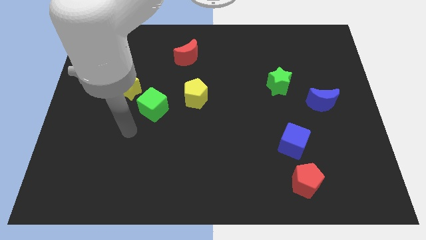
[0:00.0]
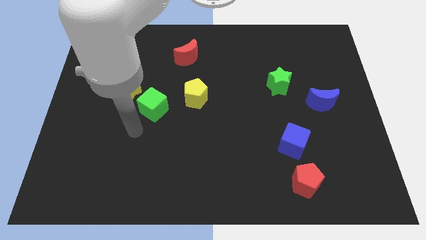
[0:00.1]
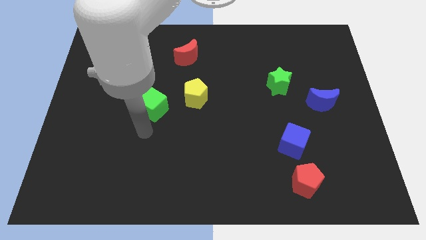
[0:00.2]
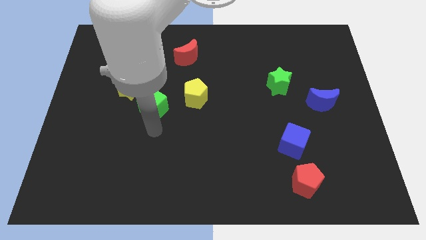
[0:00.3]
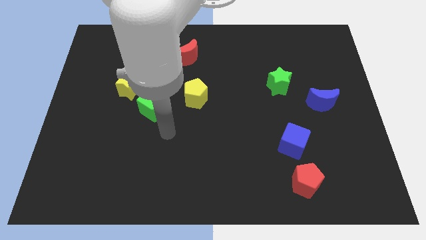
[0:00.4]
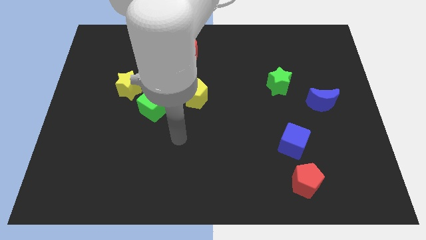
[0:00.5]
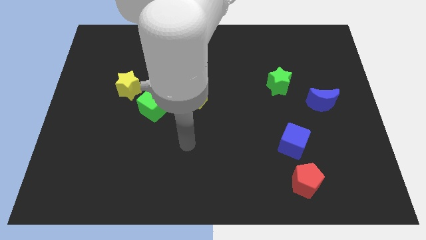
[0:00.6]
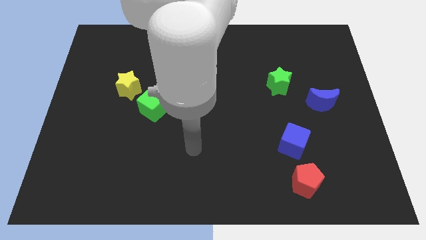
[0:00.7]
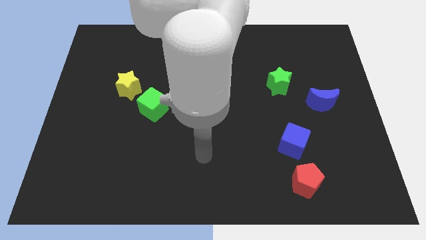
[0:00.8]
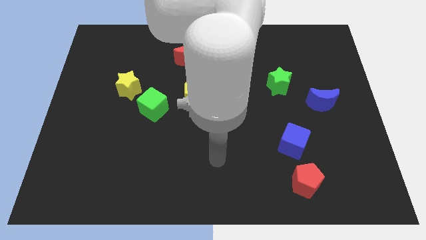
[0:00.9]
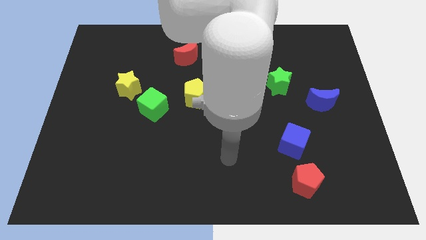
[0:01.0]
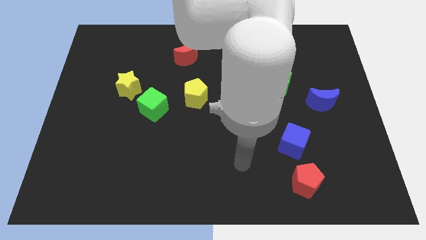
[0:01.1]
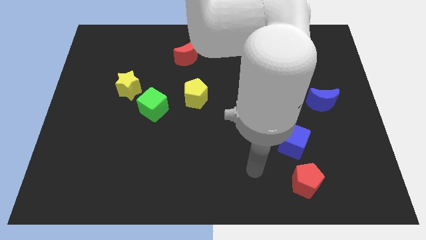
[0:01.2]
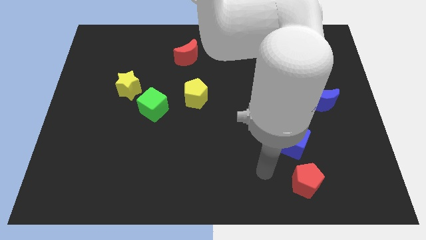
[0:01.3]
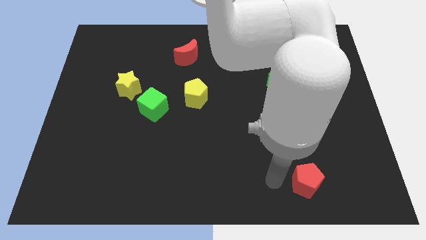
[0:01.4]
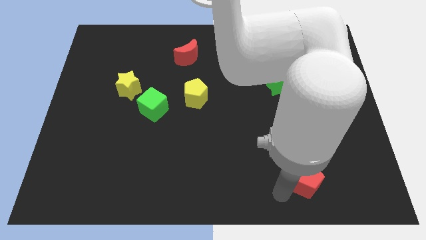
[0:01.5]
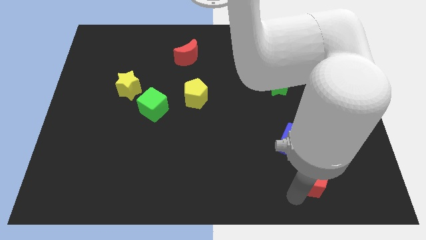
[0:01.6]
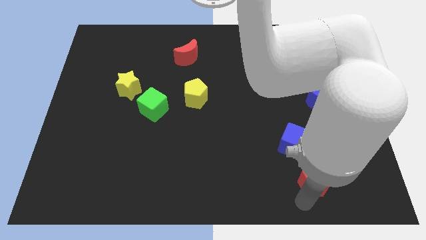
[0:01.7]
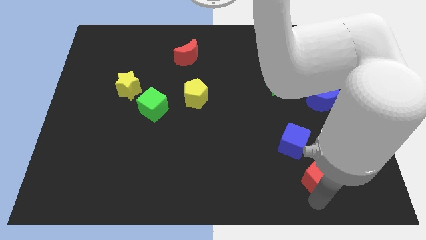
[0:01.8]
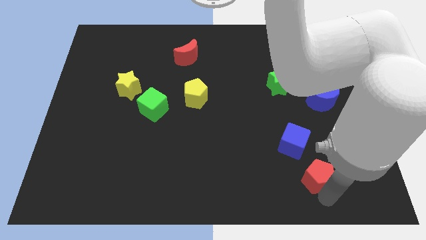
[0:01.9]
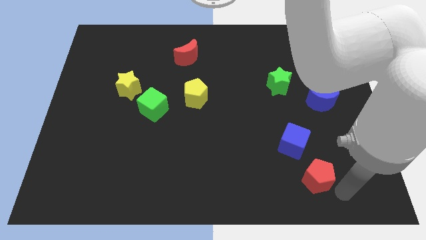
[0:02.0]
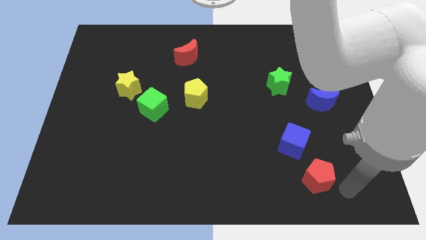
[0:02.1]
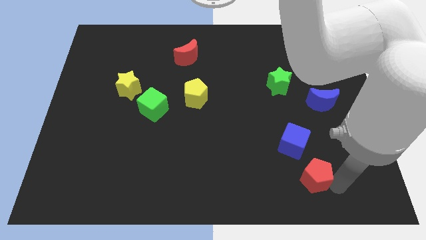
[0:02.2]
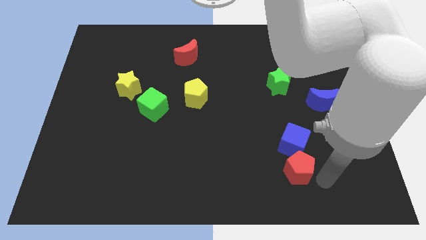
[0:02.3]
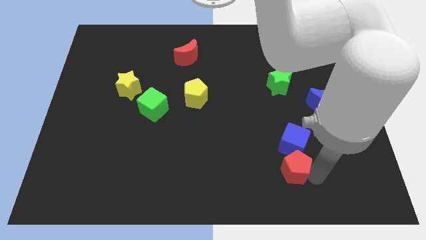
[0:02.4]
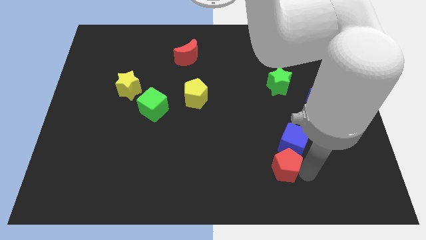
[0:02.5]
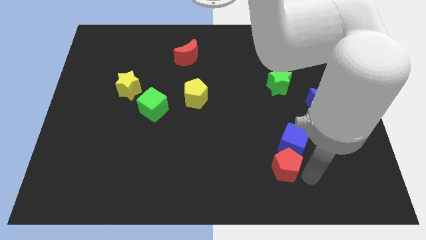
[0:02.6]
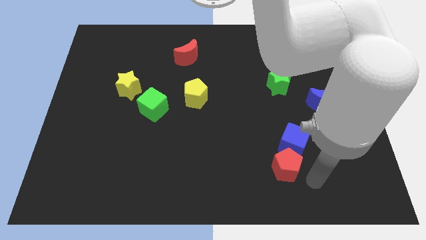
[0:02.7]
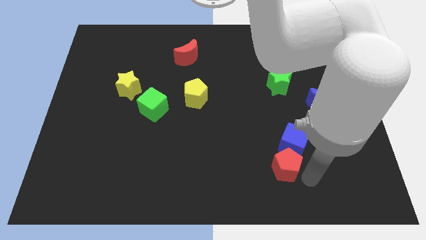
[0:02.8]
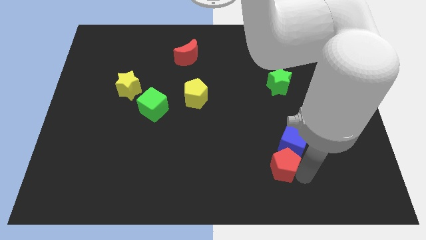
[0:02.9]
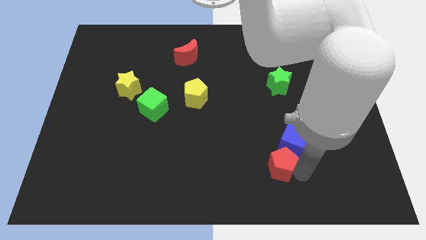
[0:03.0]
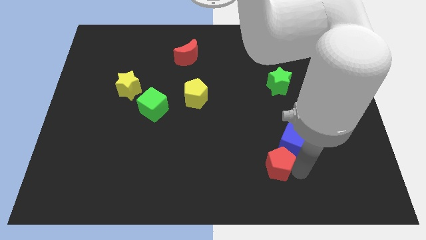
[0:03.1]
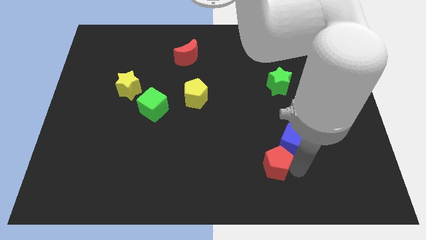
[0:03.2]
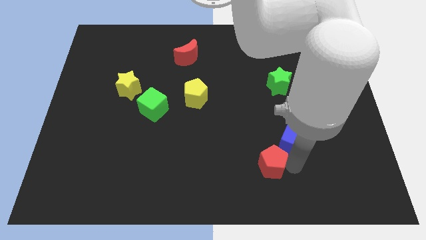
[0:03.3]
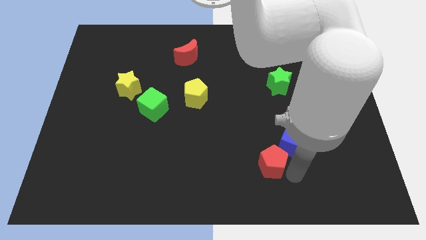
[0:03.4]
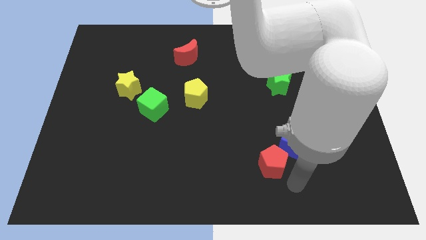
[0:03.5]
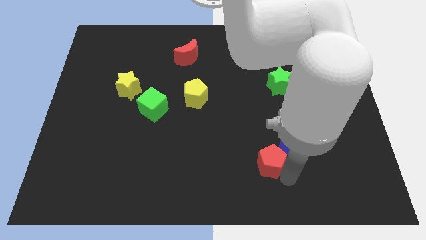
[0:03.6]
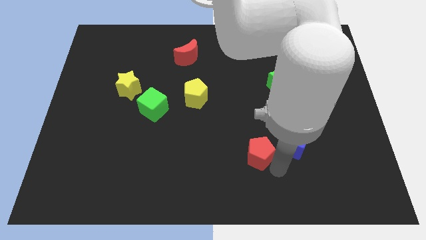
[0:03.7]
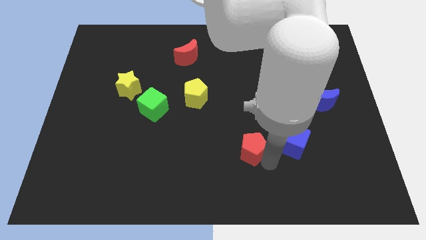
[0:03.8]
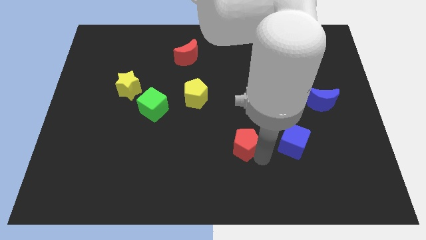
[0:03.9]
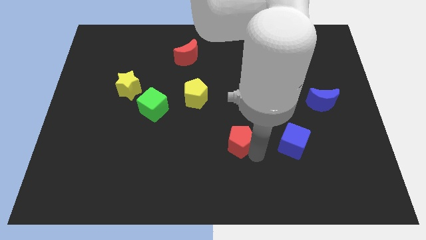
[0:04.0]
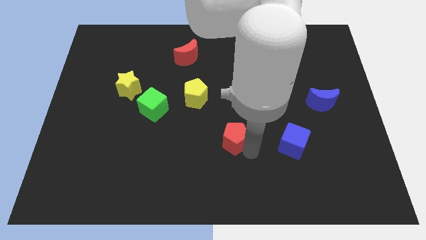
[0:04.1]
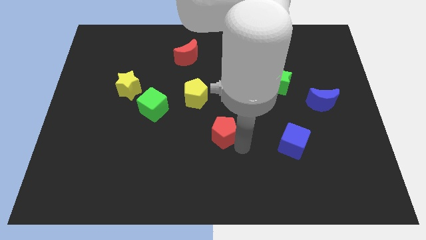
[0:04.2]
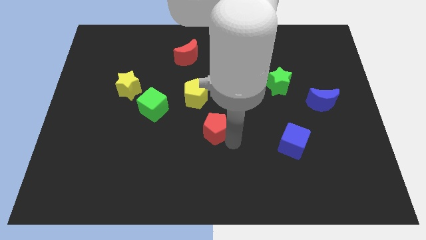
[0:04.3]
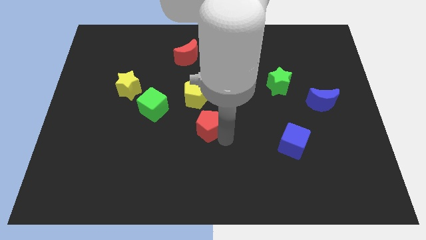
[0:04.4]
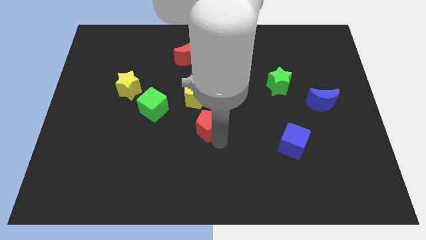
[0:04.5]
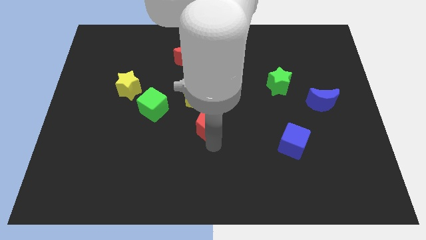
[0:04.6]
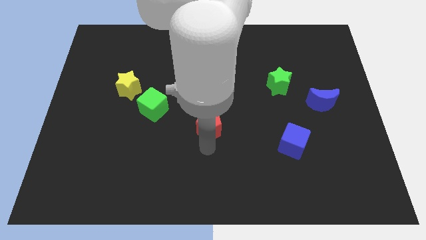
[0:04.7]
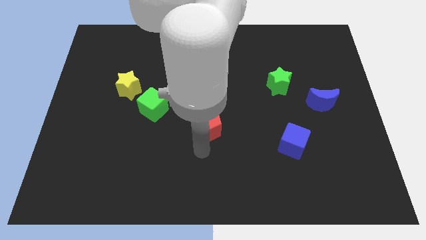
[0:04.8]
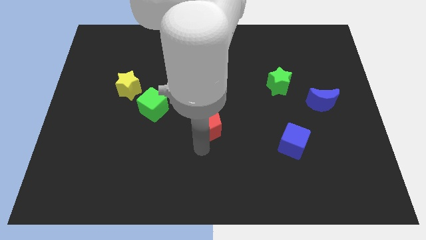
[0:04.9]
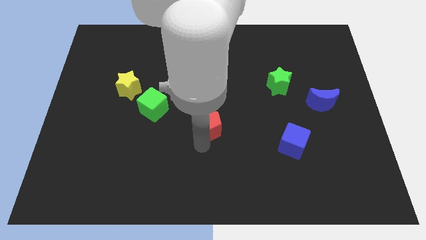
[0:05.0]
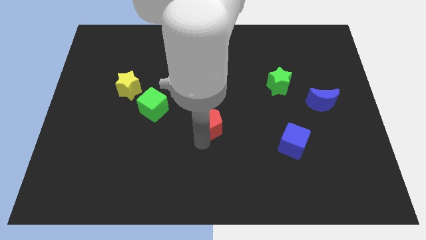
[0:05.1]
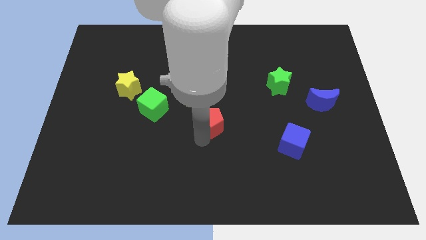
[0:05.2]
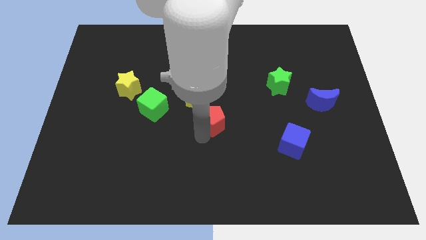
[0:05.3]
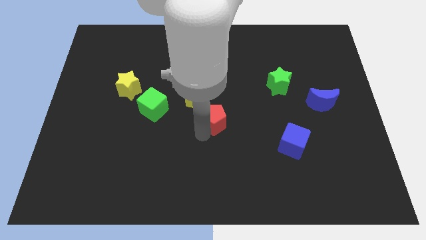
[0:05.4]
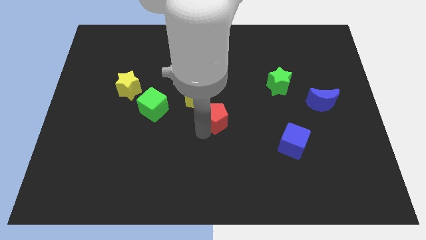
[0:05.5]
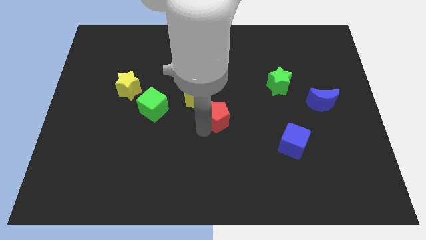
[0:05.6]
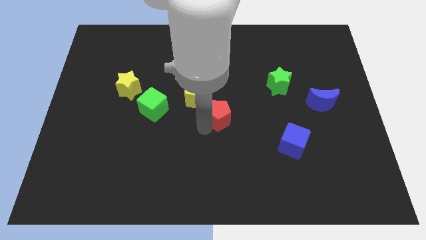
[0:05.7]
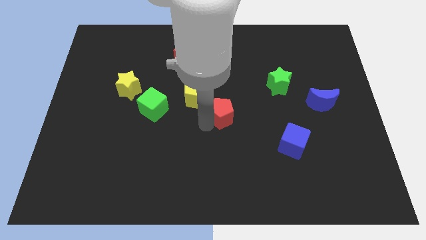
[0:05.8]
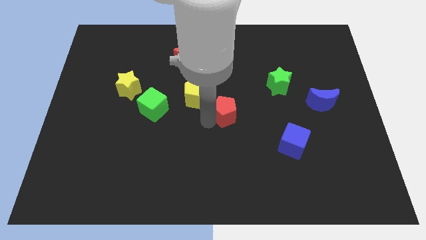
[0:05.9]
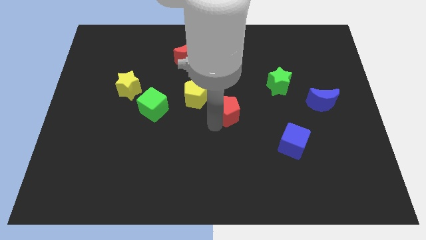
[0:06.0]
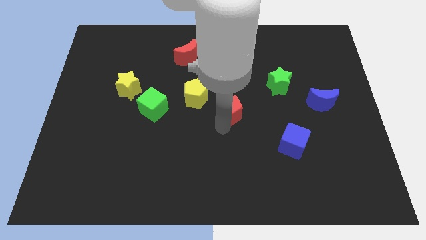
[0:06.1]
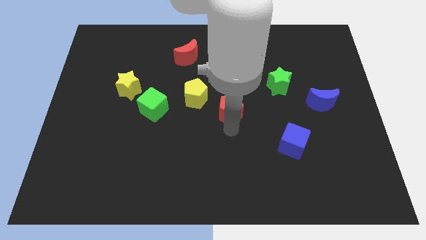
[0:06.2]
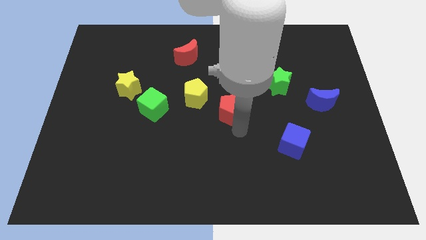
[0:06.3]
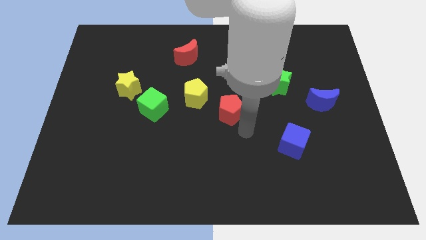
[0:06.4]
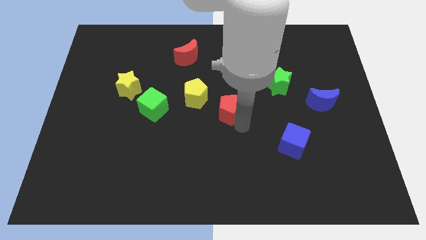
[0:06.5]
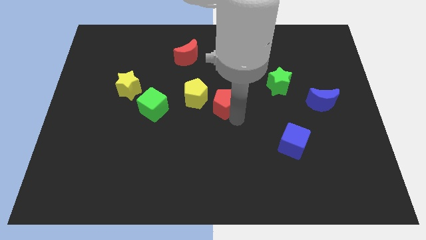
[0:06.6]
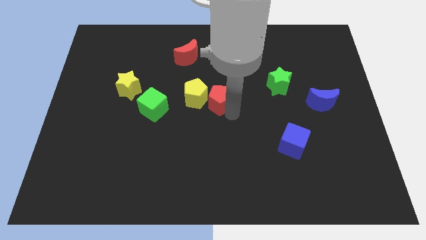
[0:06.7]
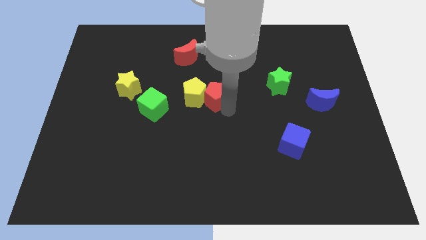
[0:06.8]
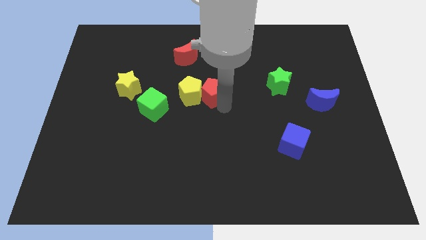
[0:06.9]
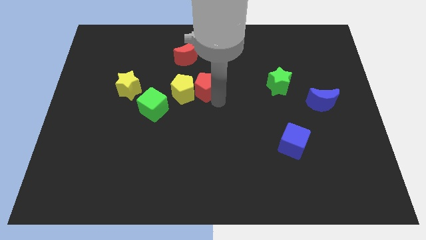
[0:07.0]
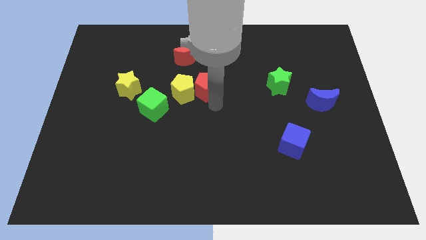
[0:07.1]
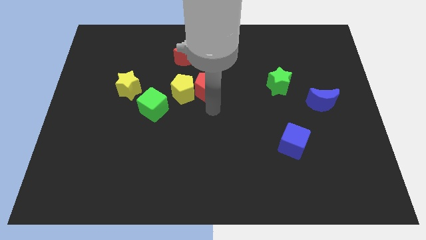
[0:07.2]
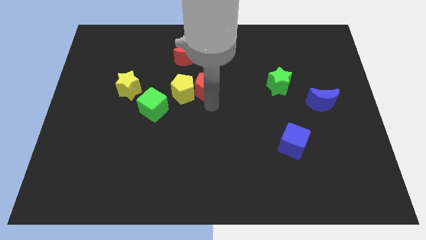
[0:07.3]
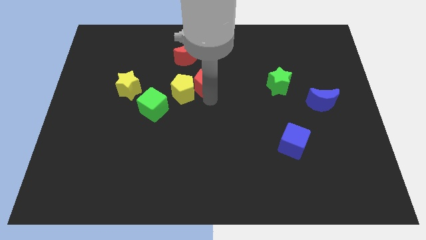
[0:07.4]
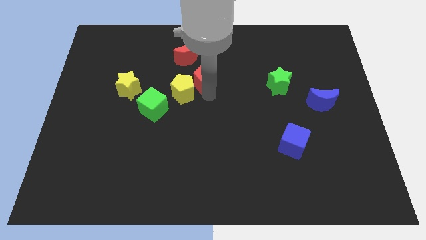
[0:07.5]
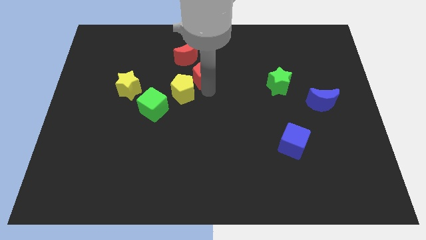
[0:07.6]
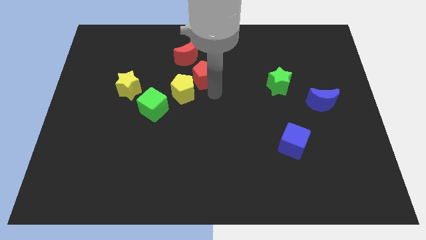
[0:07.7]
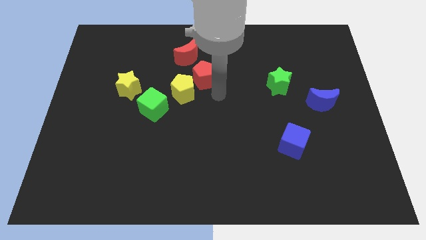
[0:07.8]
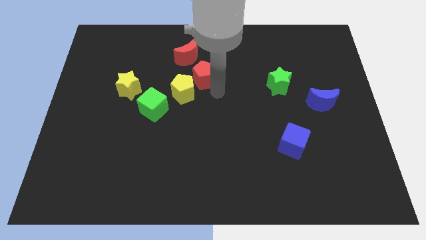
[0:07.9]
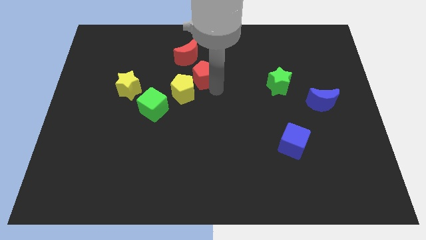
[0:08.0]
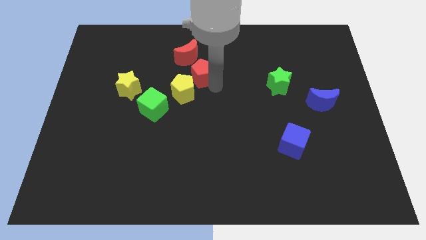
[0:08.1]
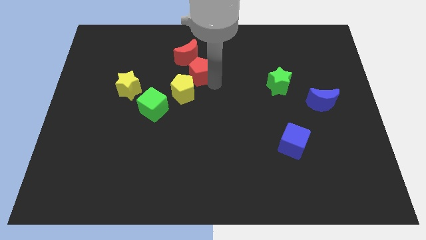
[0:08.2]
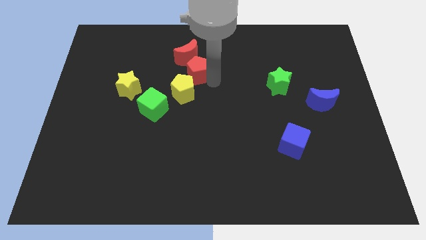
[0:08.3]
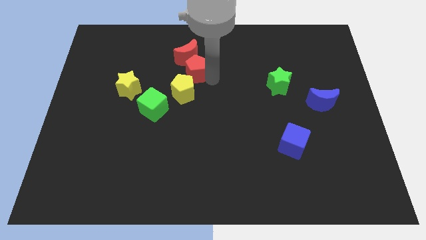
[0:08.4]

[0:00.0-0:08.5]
move the red pentagon towards the red moon
